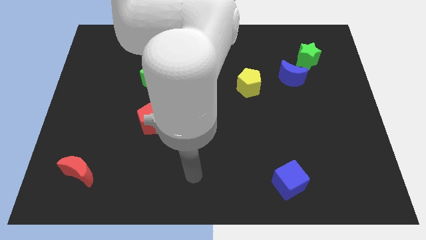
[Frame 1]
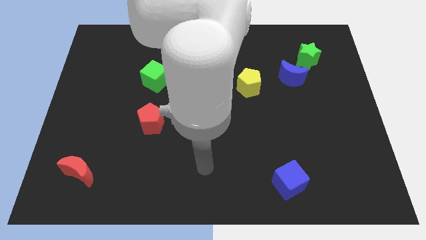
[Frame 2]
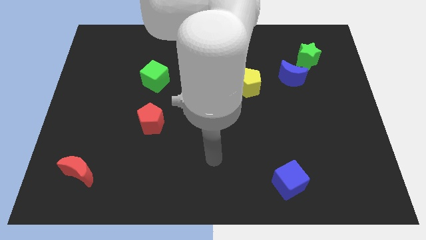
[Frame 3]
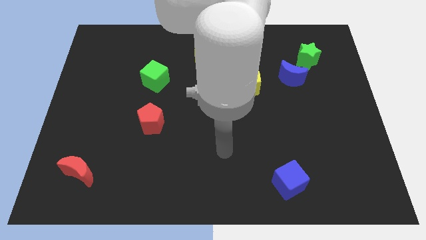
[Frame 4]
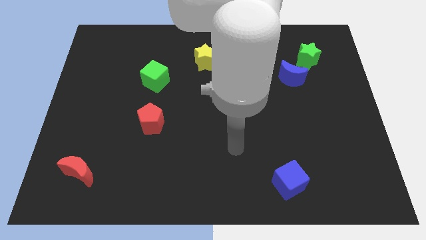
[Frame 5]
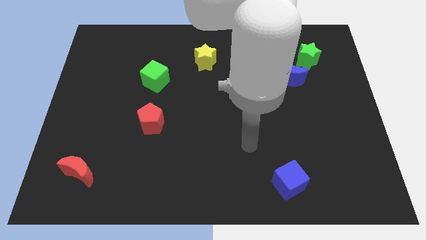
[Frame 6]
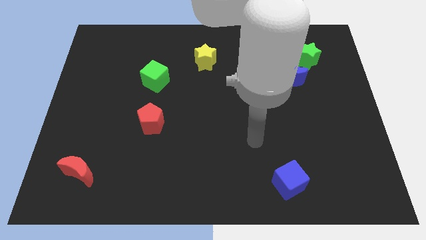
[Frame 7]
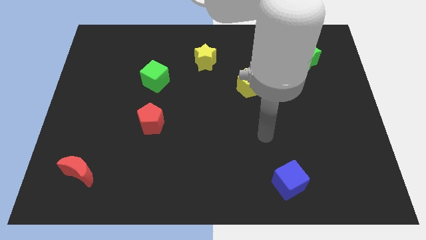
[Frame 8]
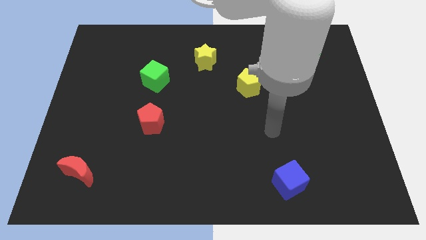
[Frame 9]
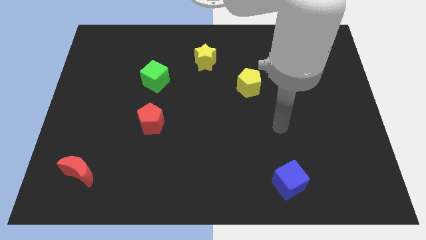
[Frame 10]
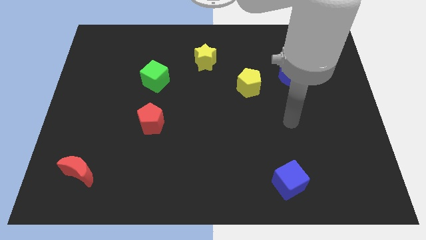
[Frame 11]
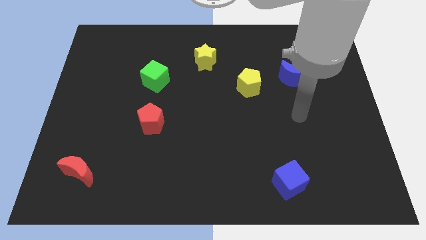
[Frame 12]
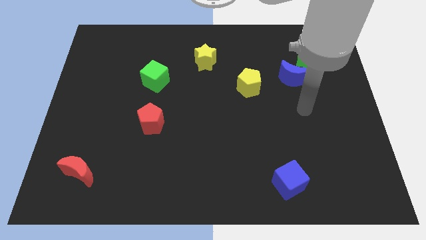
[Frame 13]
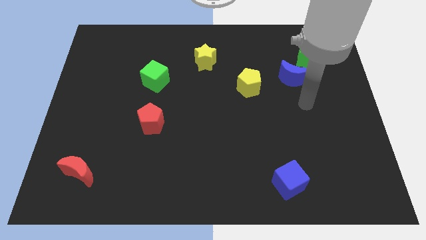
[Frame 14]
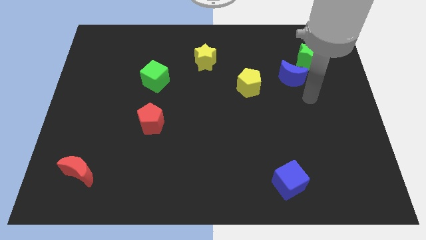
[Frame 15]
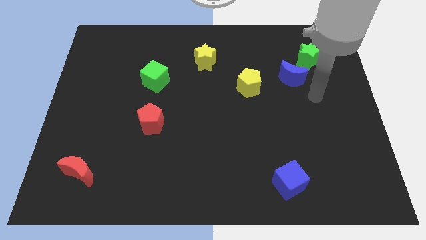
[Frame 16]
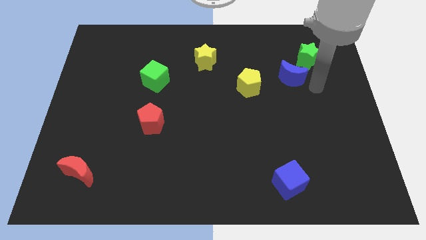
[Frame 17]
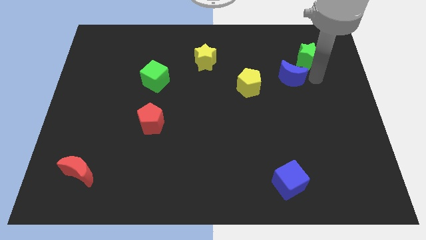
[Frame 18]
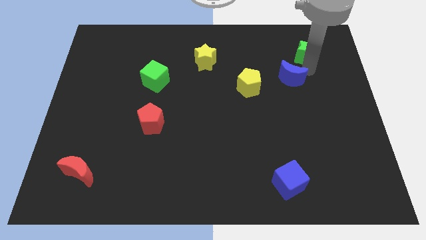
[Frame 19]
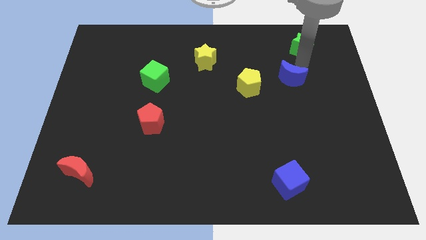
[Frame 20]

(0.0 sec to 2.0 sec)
separate the blue moon from the green star

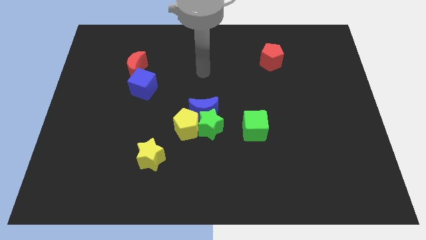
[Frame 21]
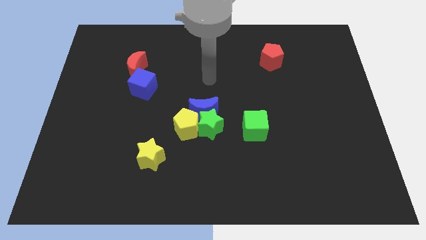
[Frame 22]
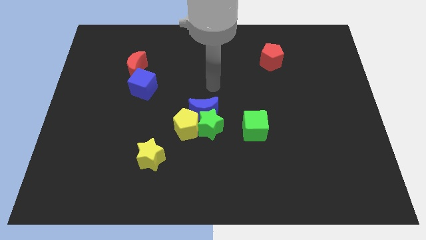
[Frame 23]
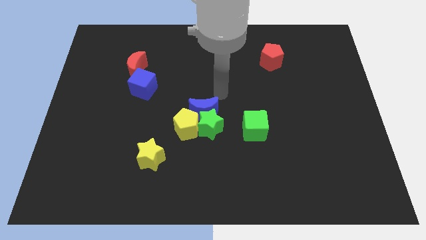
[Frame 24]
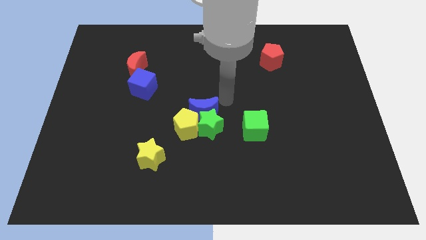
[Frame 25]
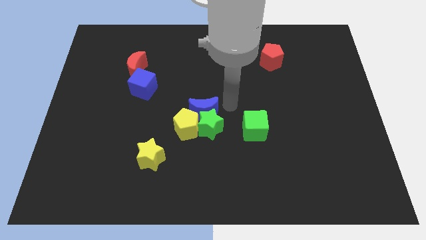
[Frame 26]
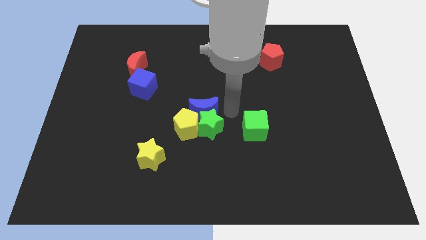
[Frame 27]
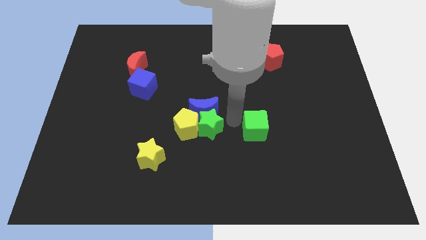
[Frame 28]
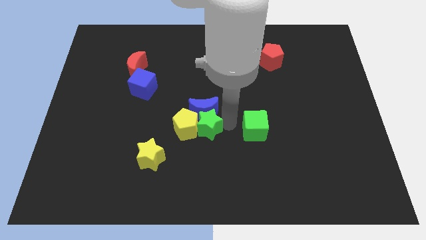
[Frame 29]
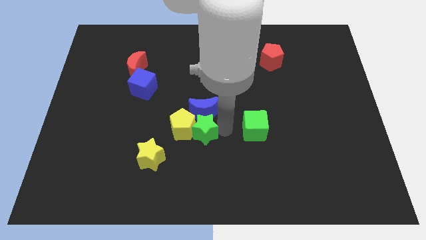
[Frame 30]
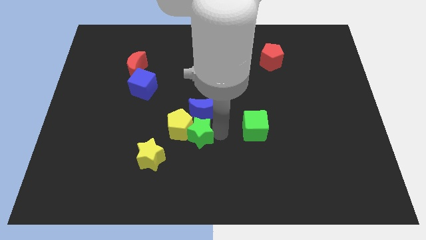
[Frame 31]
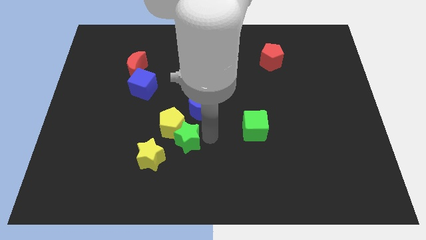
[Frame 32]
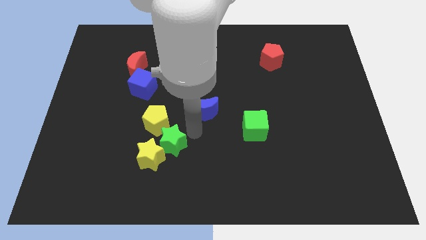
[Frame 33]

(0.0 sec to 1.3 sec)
separate the blue moon from the green star and yellow pentagon

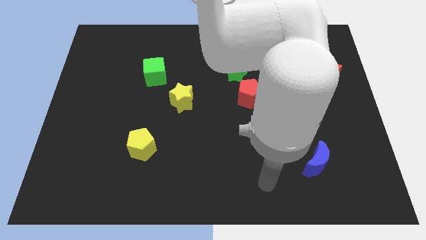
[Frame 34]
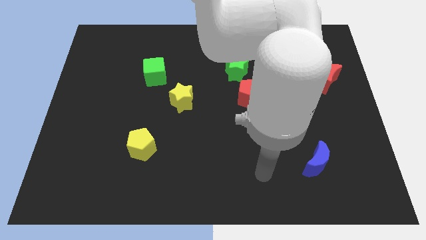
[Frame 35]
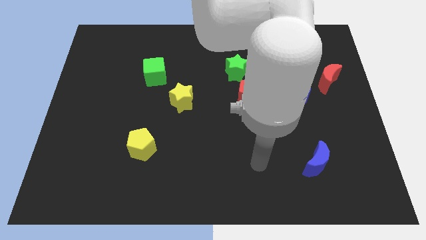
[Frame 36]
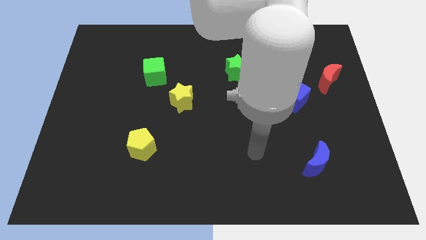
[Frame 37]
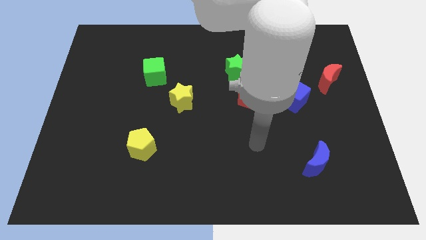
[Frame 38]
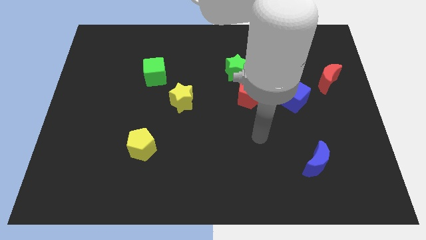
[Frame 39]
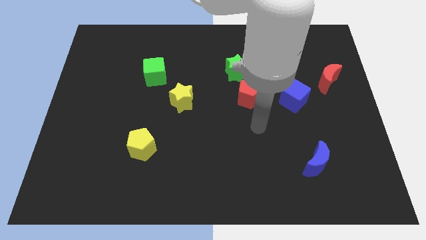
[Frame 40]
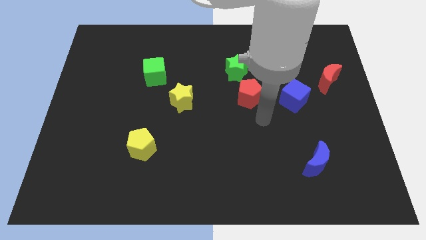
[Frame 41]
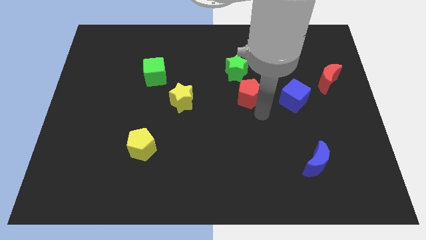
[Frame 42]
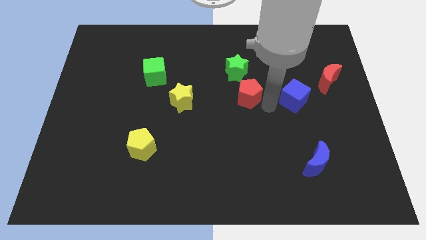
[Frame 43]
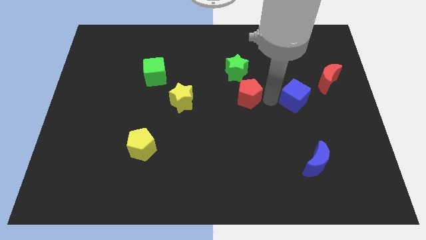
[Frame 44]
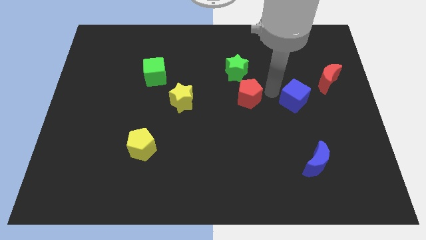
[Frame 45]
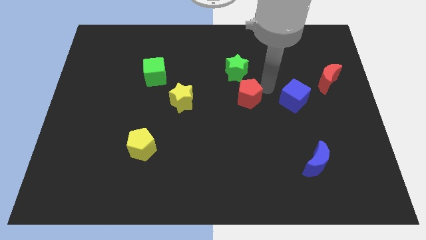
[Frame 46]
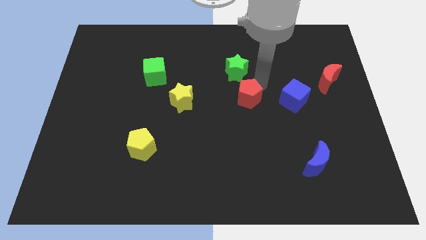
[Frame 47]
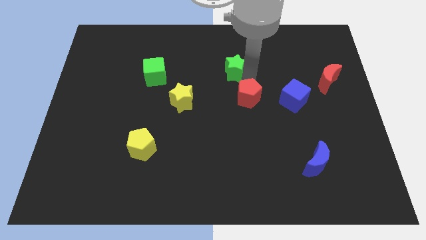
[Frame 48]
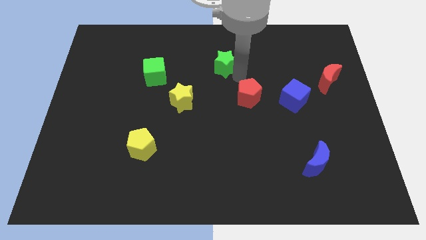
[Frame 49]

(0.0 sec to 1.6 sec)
move the red pentagon away from the green star

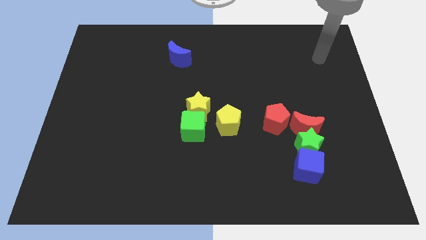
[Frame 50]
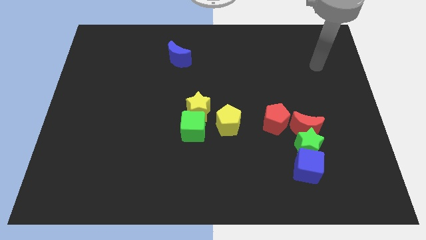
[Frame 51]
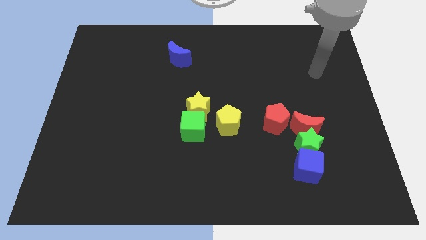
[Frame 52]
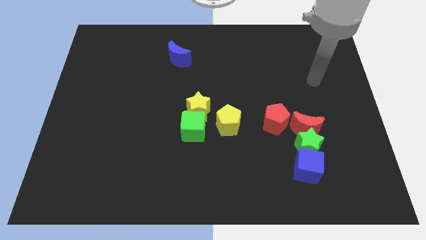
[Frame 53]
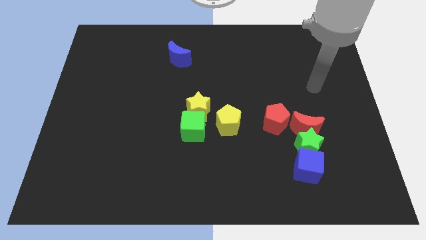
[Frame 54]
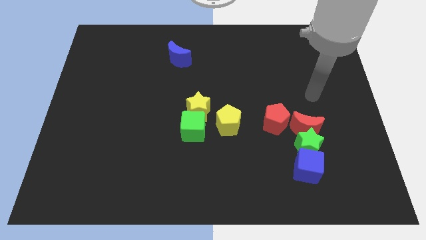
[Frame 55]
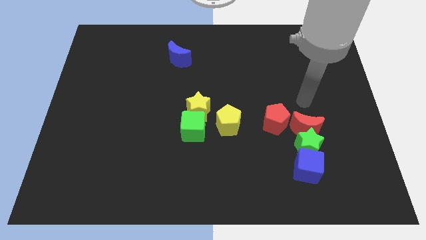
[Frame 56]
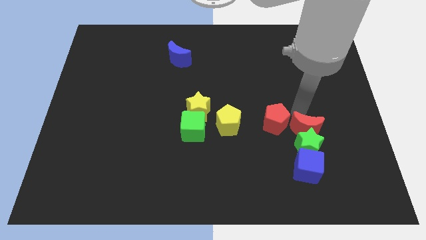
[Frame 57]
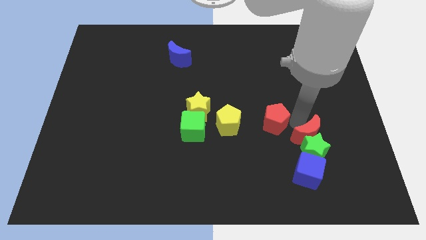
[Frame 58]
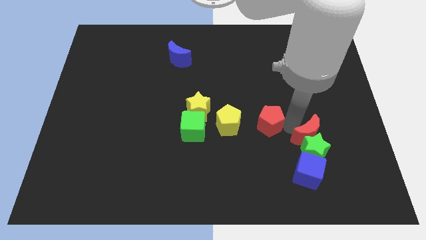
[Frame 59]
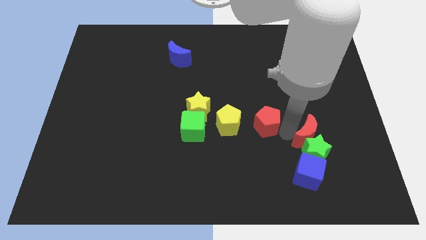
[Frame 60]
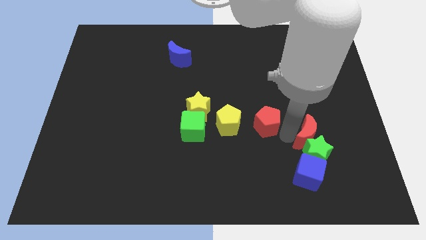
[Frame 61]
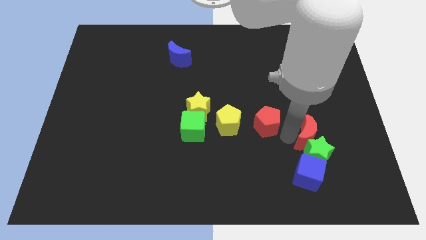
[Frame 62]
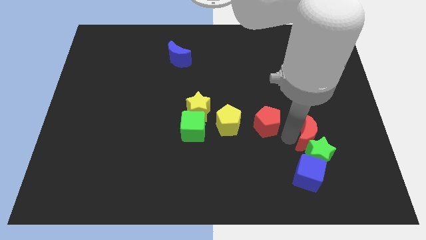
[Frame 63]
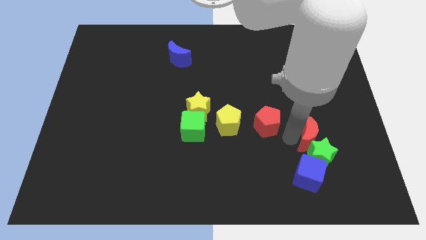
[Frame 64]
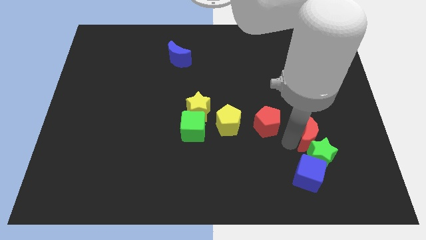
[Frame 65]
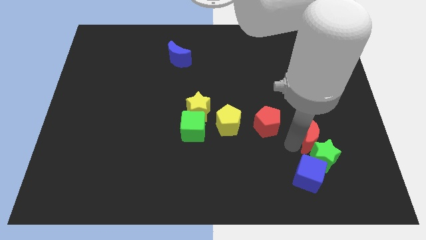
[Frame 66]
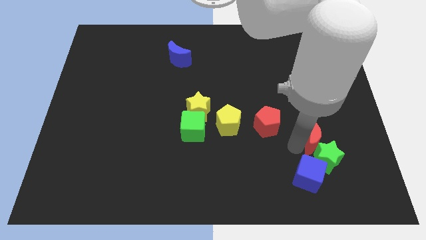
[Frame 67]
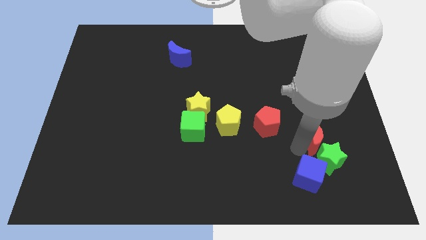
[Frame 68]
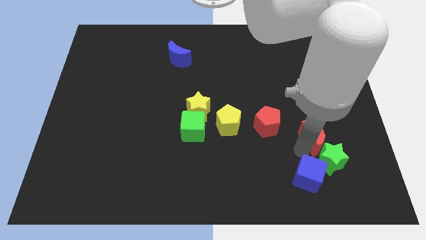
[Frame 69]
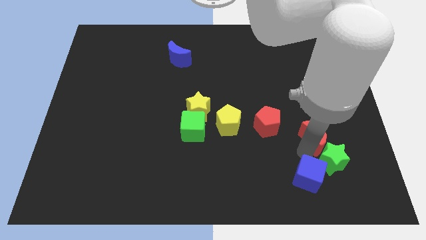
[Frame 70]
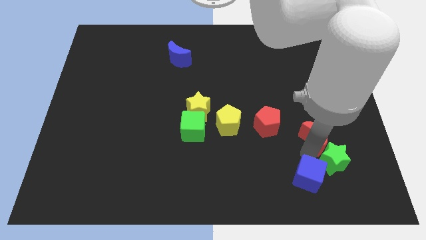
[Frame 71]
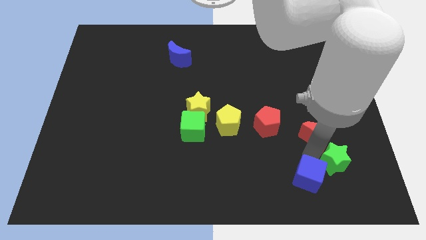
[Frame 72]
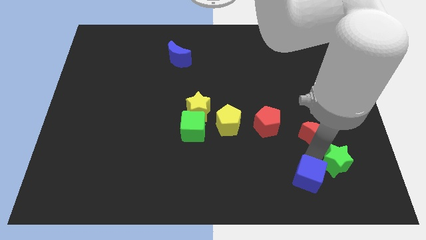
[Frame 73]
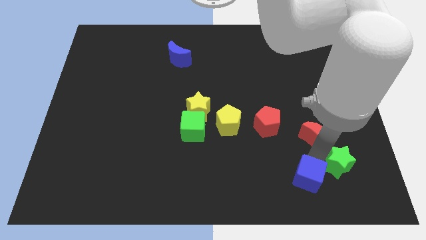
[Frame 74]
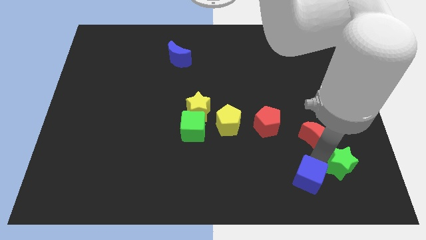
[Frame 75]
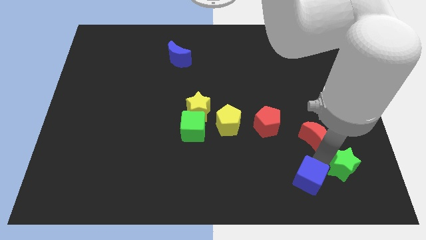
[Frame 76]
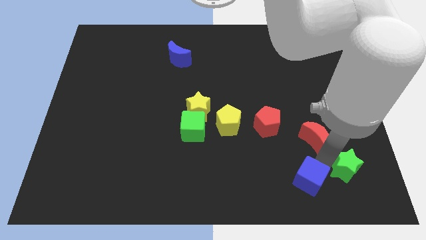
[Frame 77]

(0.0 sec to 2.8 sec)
pull the green star apart from the red moon, blue cube, and red pentagon

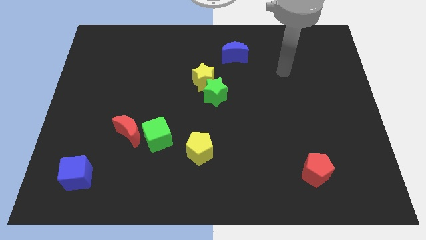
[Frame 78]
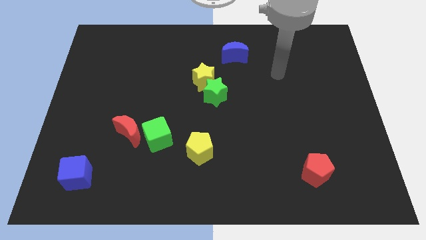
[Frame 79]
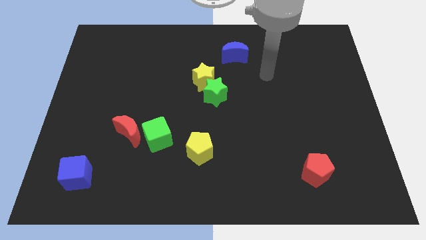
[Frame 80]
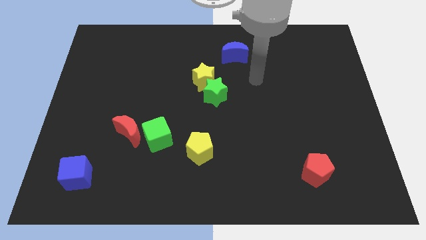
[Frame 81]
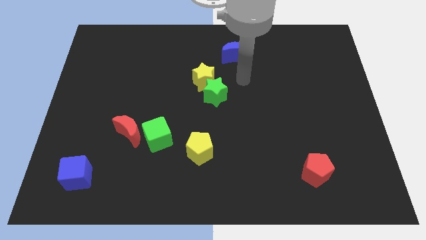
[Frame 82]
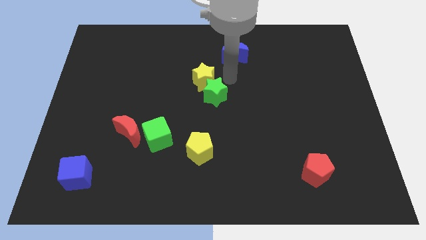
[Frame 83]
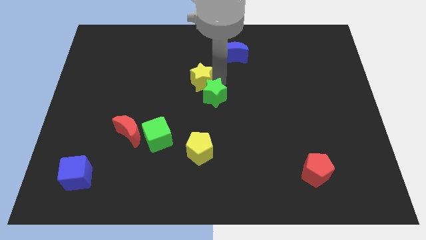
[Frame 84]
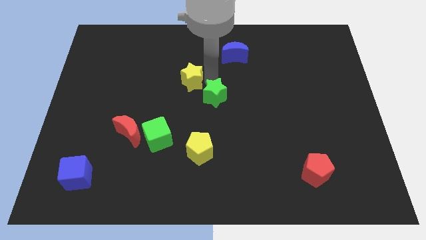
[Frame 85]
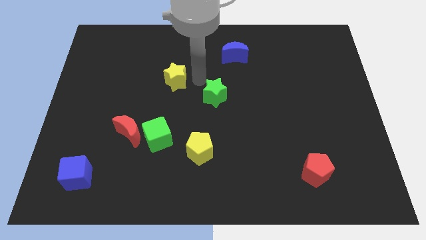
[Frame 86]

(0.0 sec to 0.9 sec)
separate the green star from the yellow star

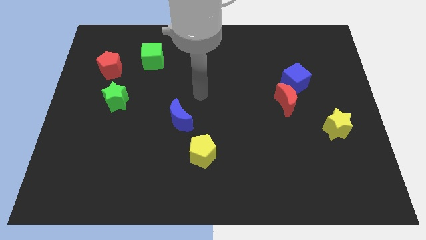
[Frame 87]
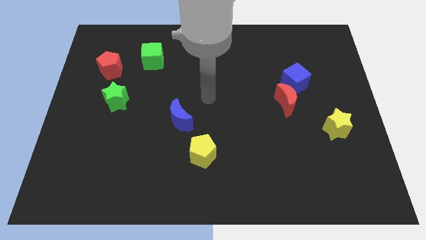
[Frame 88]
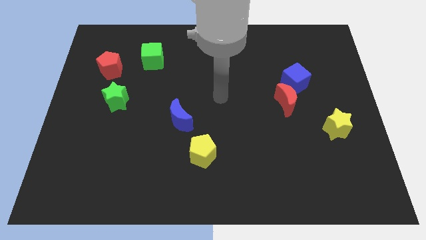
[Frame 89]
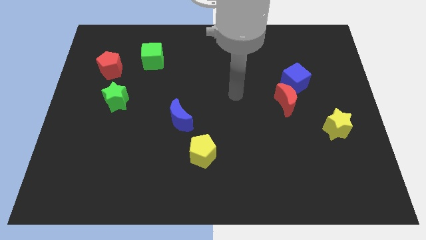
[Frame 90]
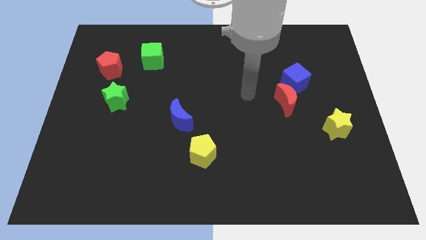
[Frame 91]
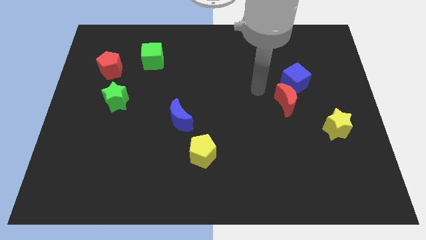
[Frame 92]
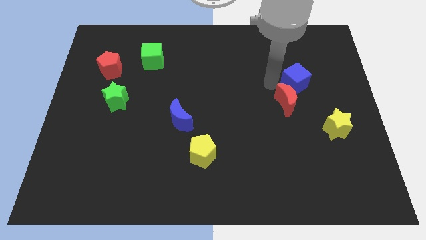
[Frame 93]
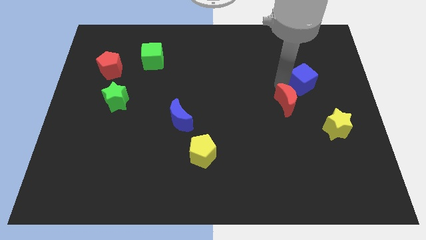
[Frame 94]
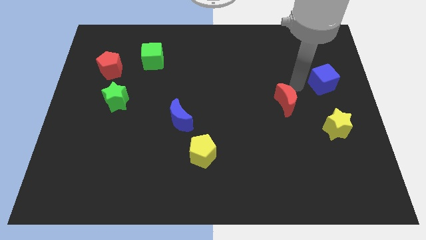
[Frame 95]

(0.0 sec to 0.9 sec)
move the red moon away from the blue cube
